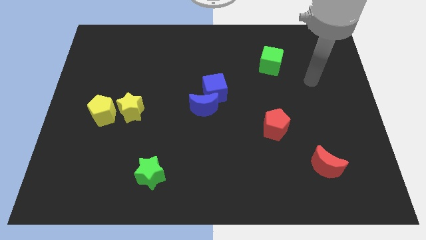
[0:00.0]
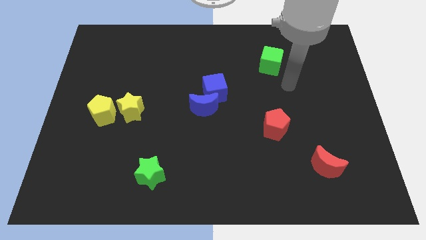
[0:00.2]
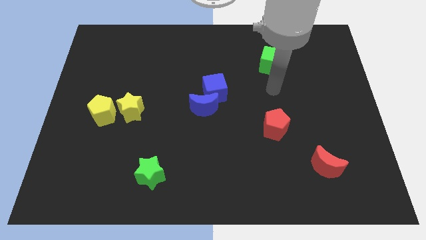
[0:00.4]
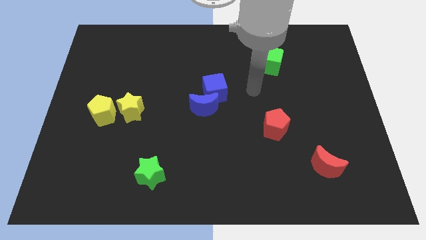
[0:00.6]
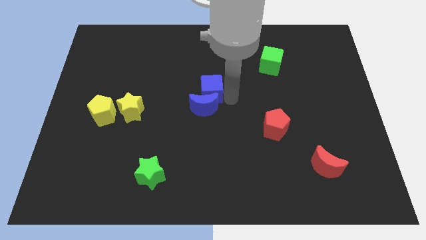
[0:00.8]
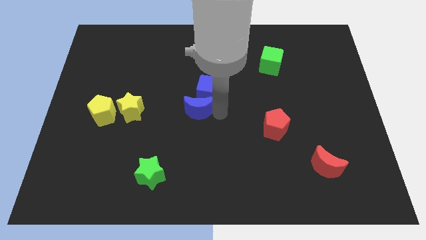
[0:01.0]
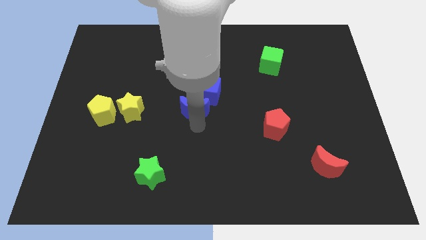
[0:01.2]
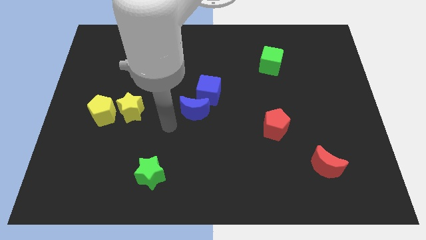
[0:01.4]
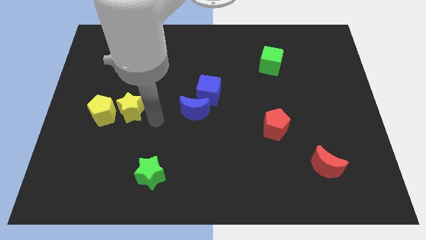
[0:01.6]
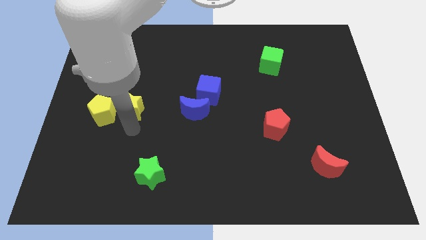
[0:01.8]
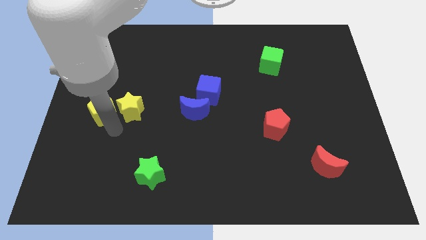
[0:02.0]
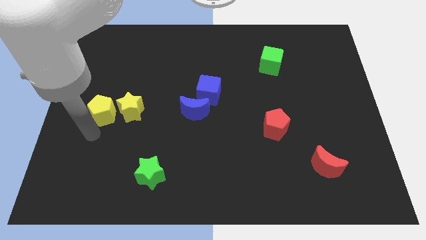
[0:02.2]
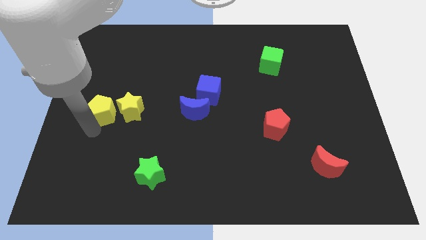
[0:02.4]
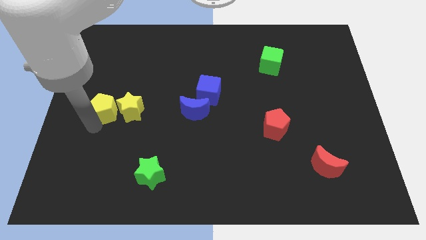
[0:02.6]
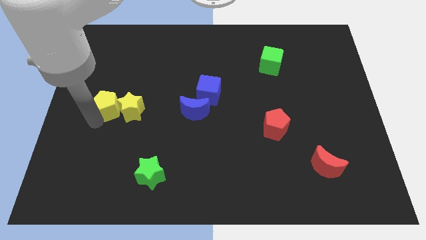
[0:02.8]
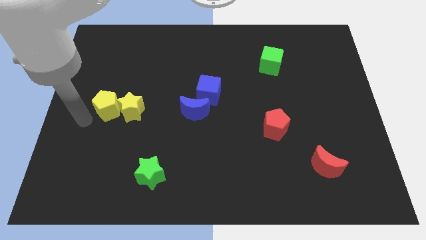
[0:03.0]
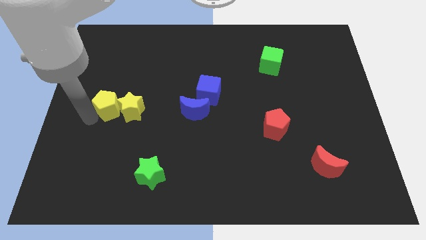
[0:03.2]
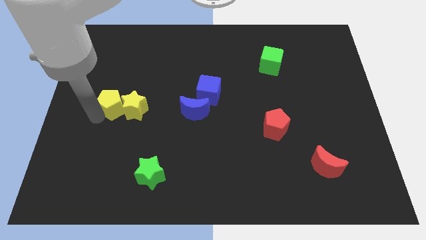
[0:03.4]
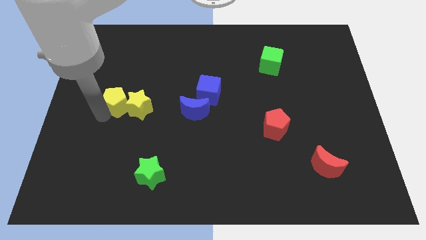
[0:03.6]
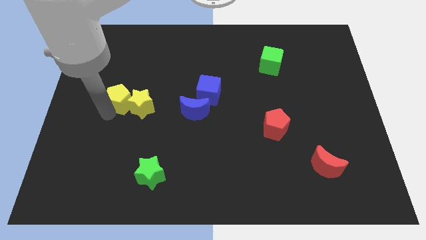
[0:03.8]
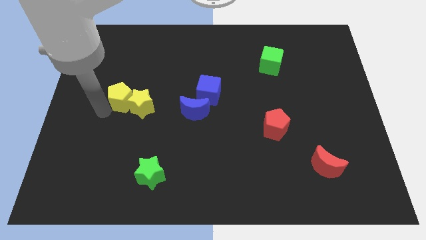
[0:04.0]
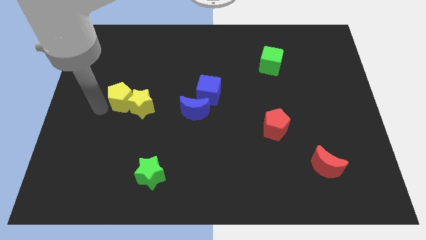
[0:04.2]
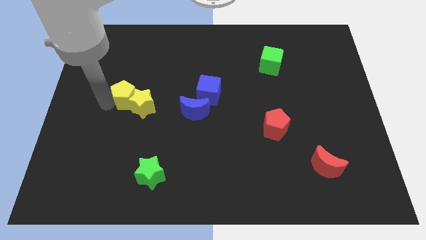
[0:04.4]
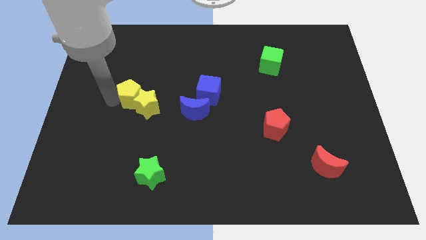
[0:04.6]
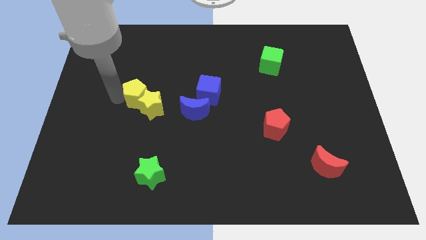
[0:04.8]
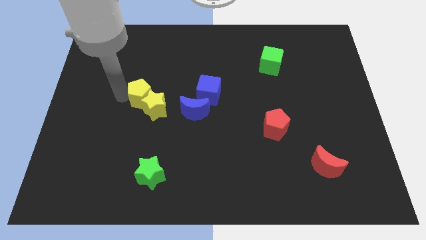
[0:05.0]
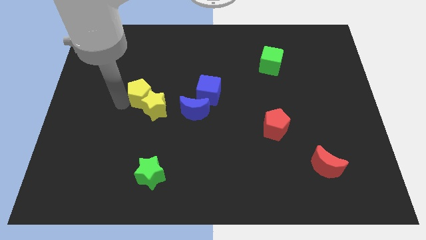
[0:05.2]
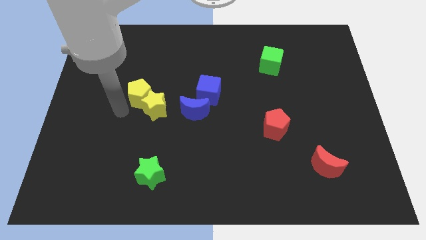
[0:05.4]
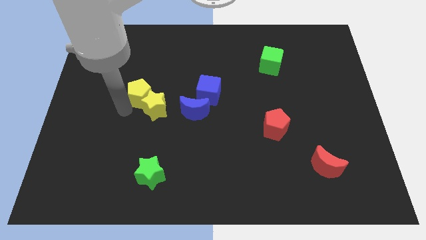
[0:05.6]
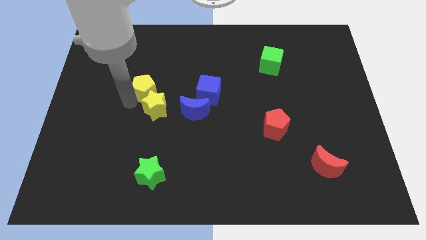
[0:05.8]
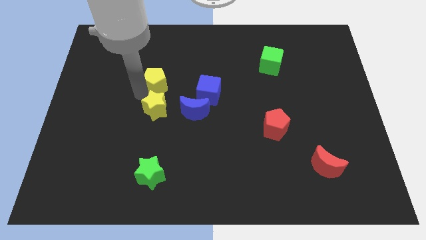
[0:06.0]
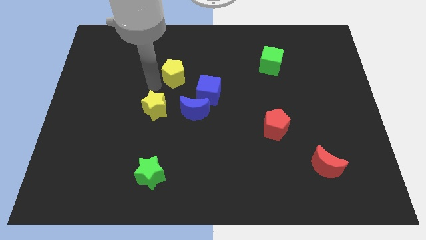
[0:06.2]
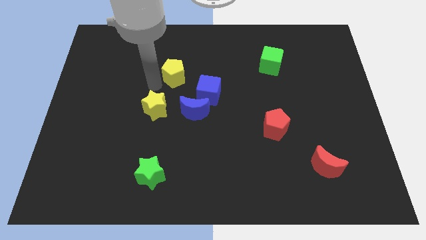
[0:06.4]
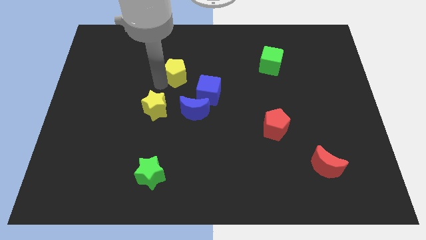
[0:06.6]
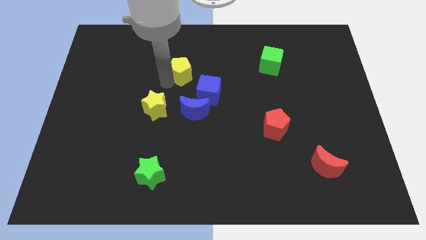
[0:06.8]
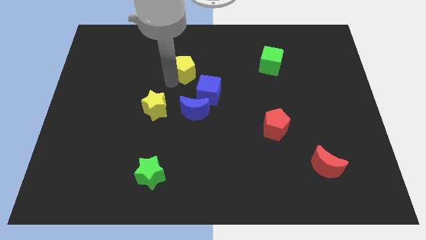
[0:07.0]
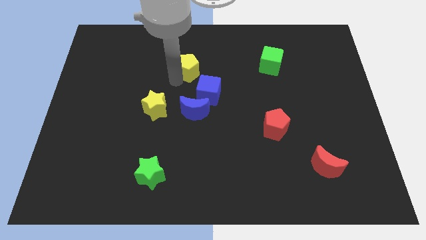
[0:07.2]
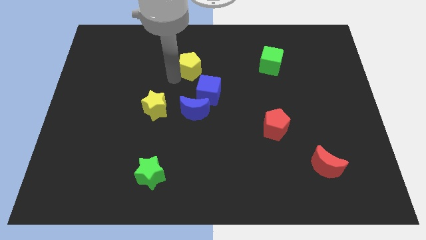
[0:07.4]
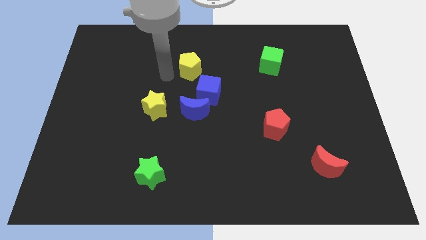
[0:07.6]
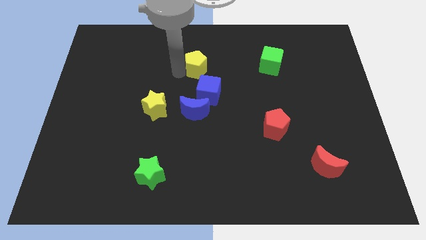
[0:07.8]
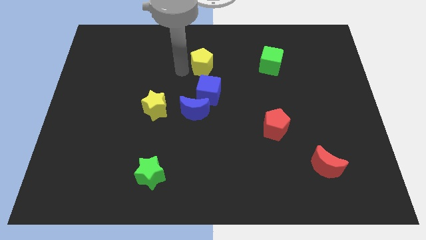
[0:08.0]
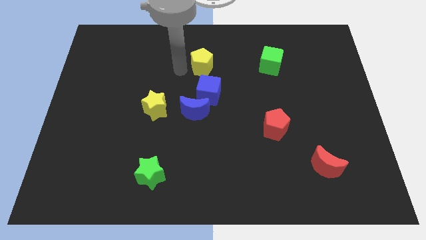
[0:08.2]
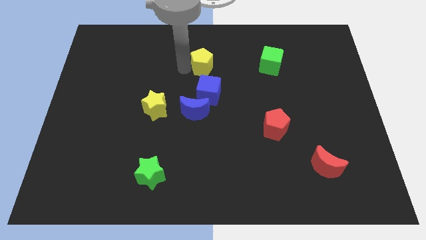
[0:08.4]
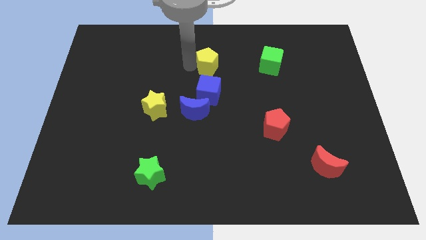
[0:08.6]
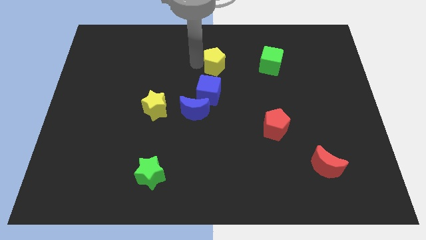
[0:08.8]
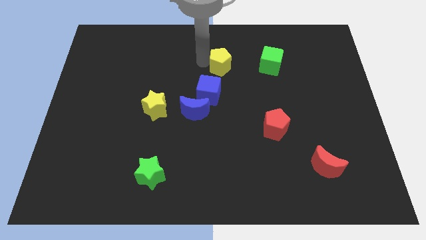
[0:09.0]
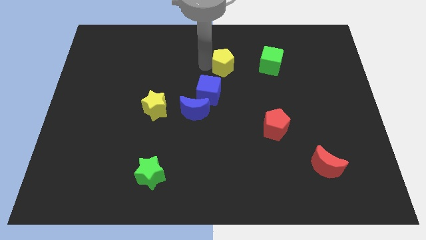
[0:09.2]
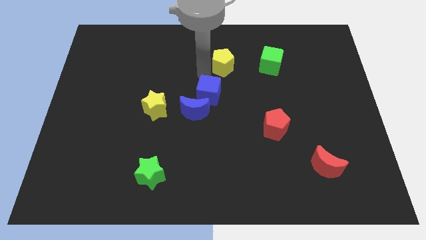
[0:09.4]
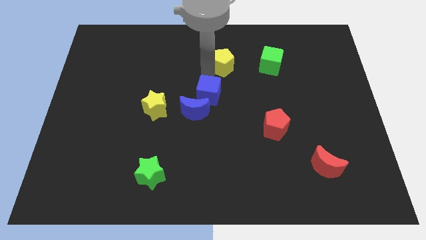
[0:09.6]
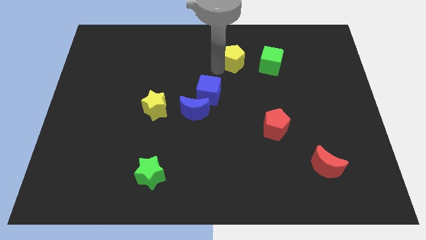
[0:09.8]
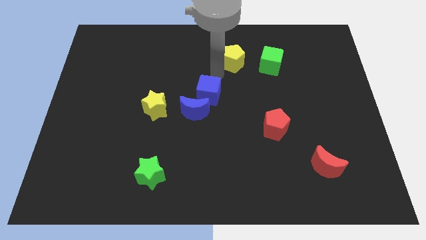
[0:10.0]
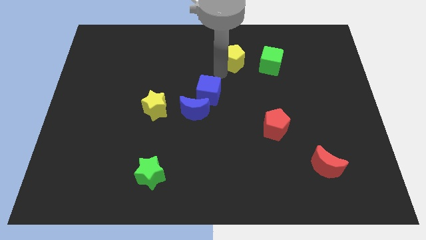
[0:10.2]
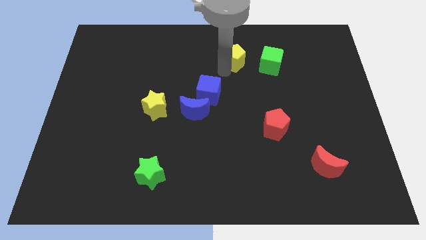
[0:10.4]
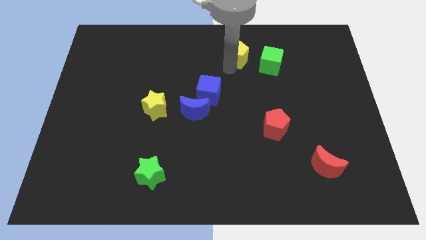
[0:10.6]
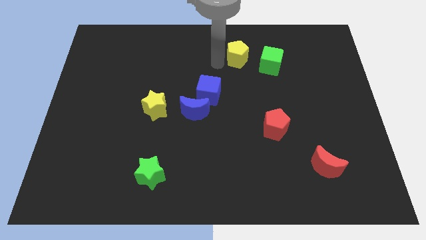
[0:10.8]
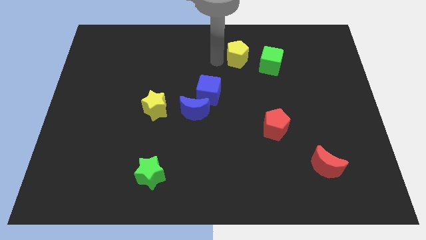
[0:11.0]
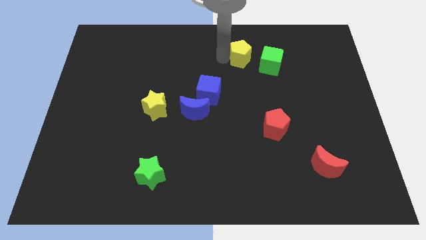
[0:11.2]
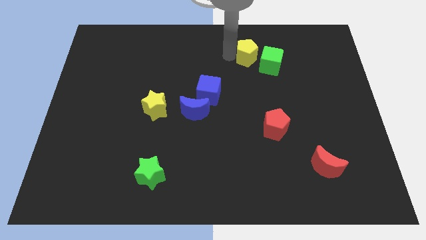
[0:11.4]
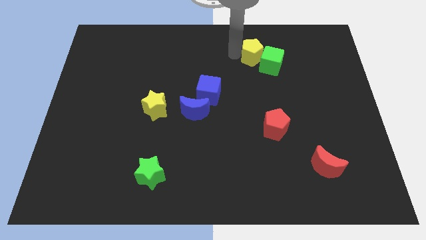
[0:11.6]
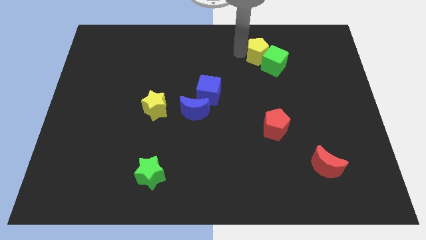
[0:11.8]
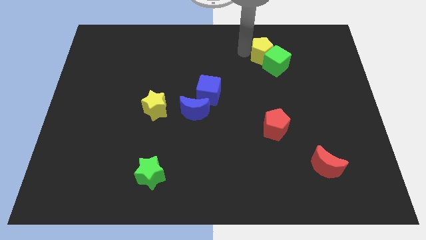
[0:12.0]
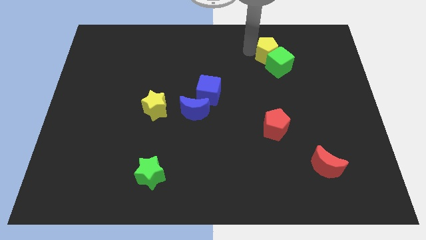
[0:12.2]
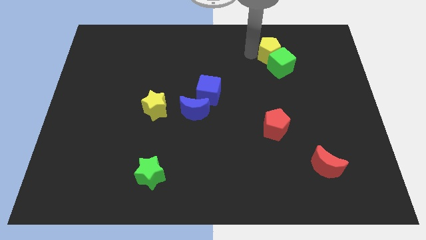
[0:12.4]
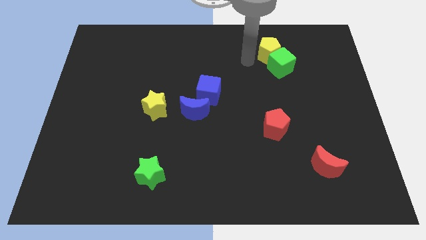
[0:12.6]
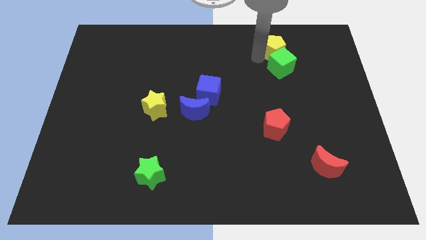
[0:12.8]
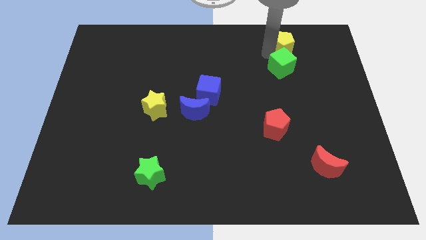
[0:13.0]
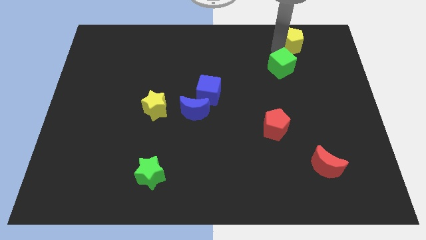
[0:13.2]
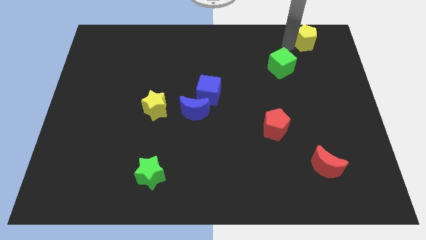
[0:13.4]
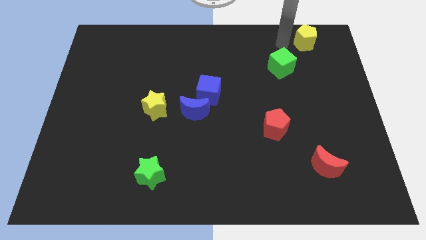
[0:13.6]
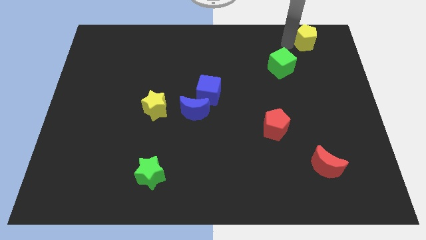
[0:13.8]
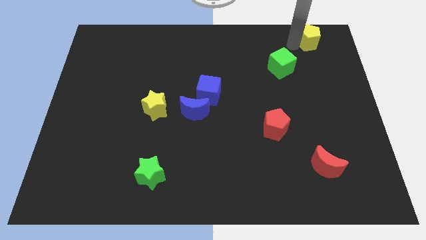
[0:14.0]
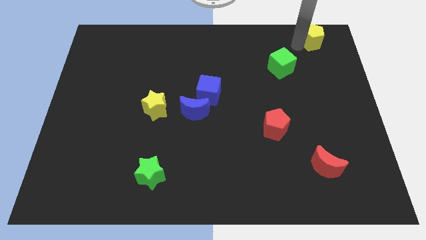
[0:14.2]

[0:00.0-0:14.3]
slide the yellow pentagon to the top right
